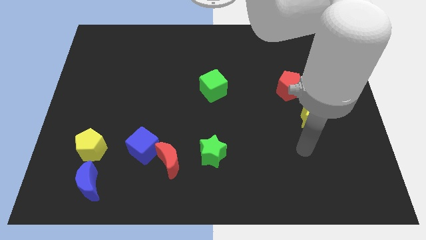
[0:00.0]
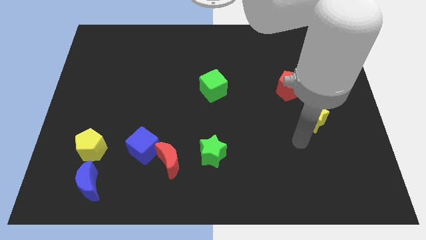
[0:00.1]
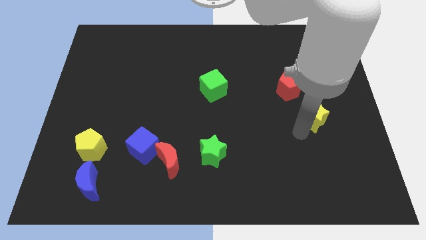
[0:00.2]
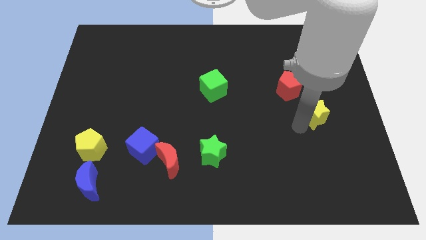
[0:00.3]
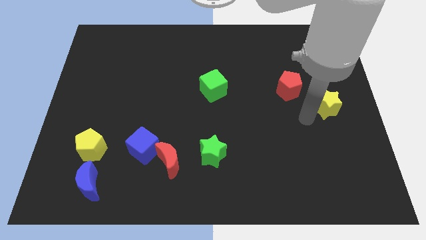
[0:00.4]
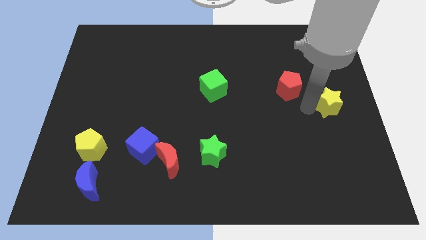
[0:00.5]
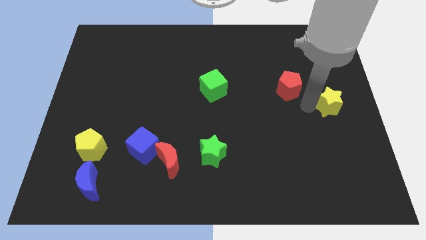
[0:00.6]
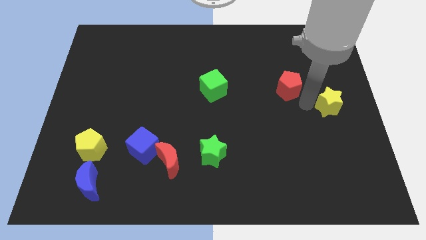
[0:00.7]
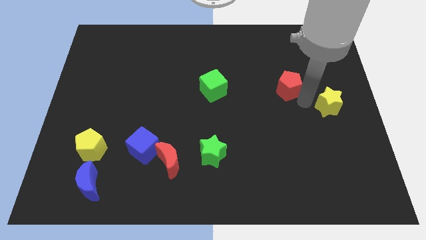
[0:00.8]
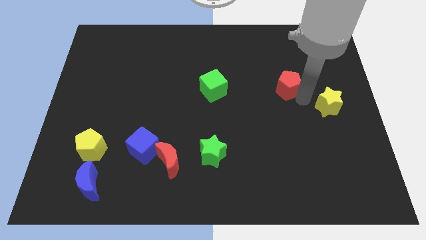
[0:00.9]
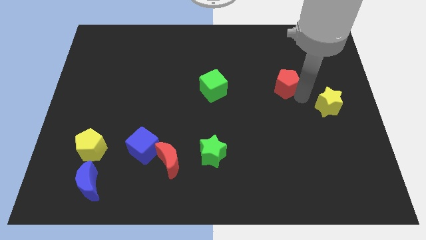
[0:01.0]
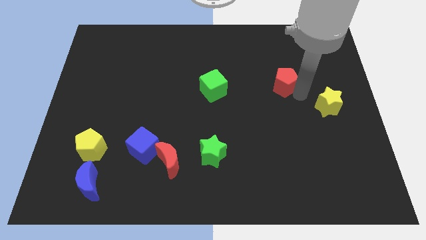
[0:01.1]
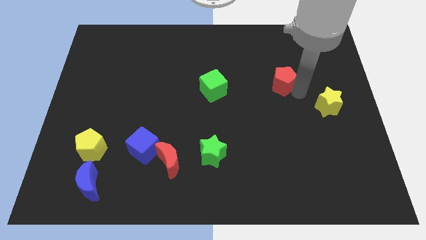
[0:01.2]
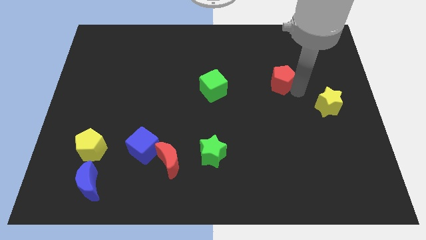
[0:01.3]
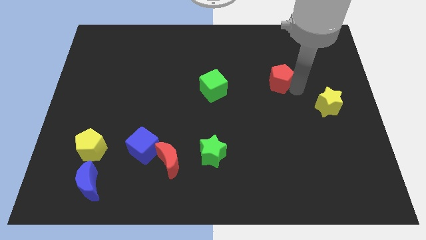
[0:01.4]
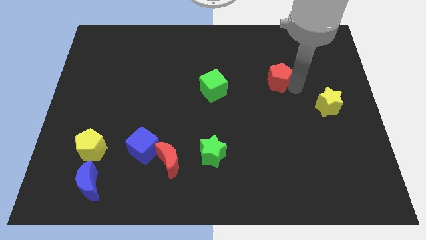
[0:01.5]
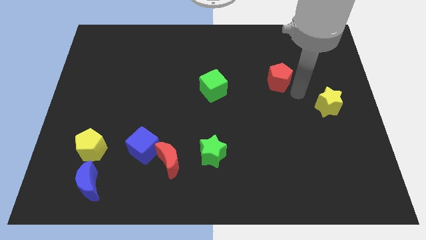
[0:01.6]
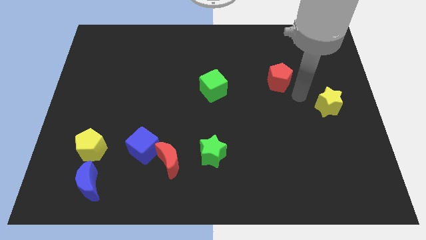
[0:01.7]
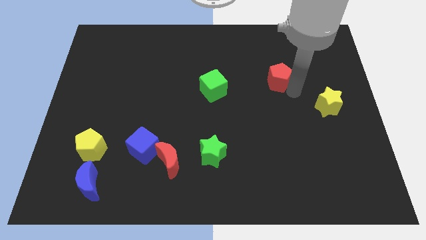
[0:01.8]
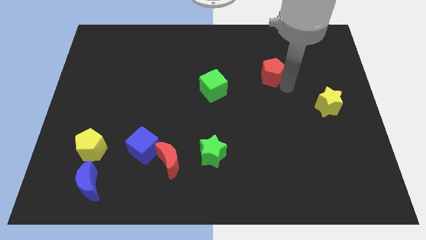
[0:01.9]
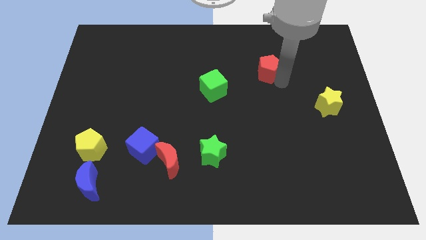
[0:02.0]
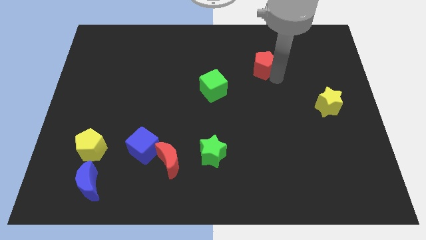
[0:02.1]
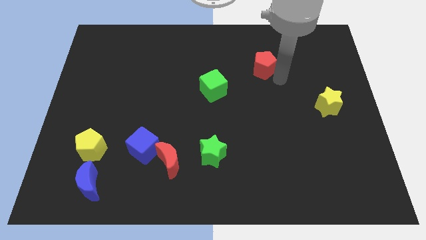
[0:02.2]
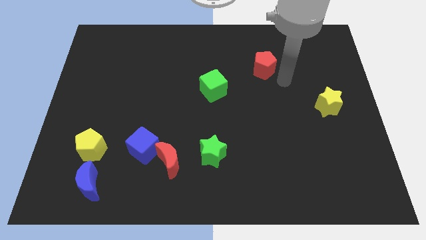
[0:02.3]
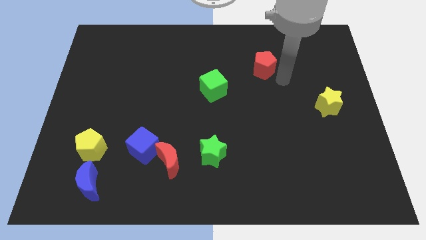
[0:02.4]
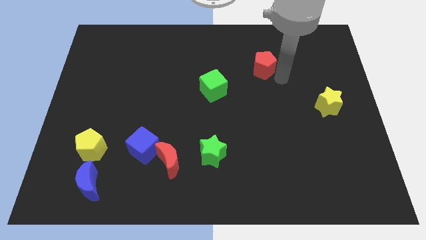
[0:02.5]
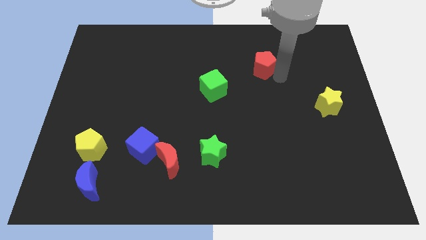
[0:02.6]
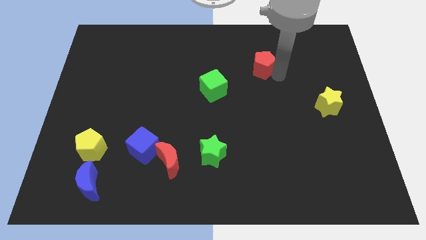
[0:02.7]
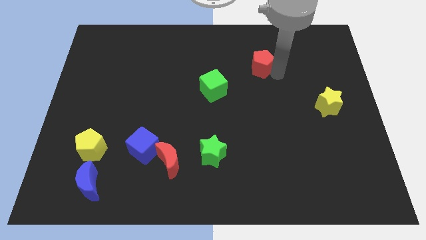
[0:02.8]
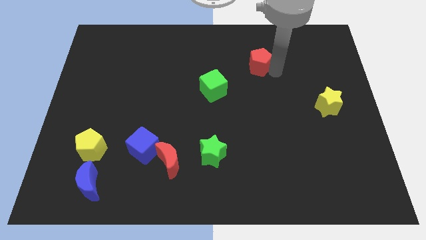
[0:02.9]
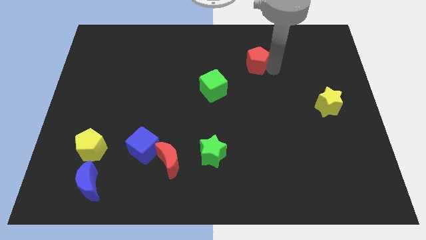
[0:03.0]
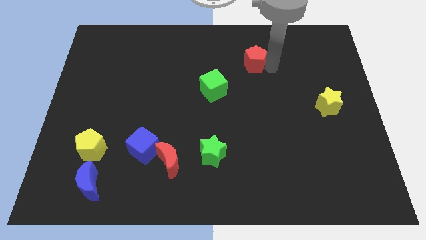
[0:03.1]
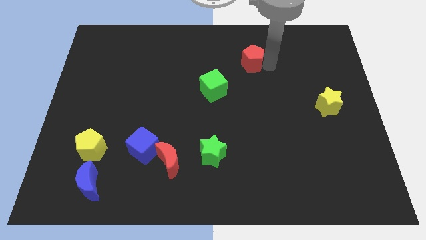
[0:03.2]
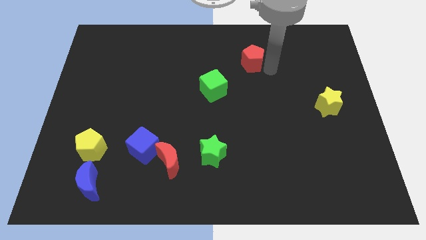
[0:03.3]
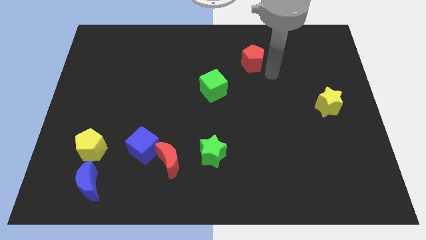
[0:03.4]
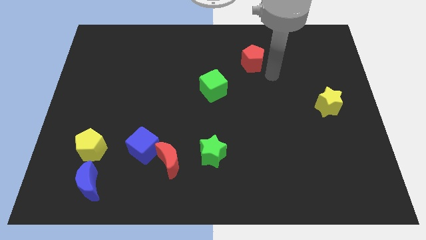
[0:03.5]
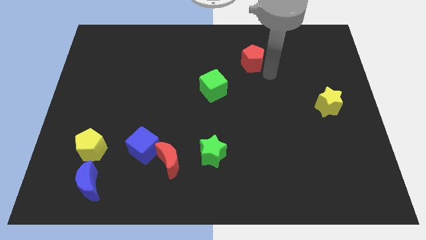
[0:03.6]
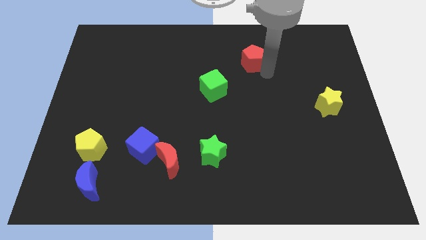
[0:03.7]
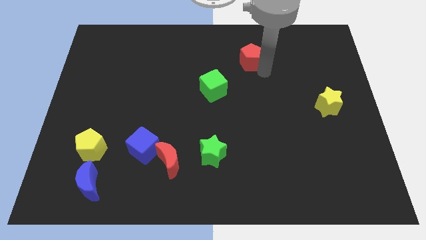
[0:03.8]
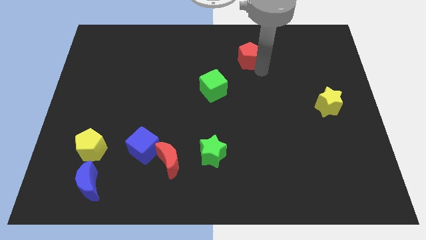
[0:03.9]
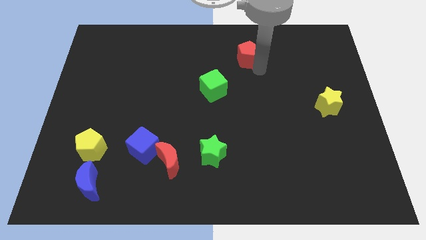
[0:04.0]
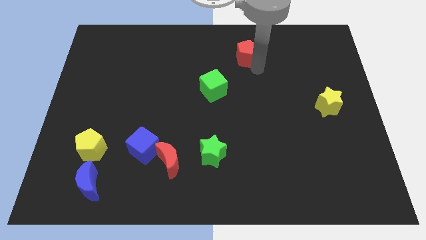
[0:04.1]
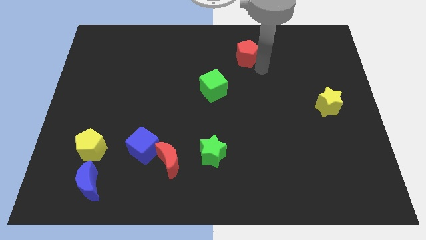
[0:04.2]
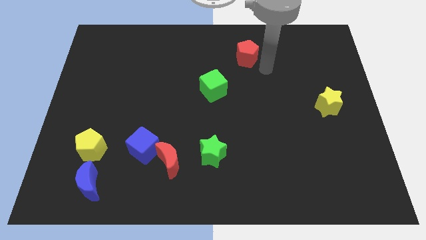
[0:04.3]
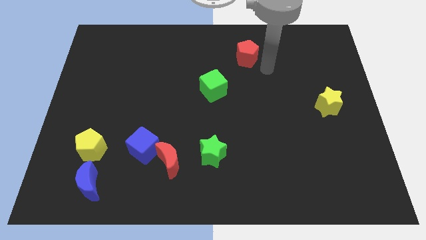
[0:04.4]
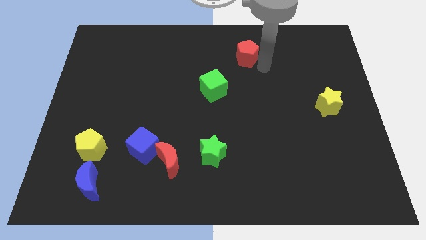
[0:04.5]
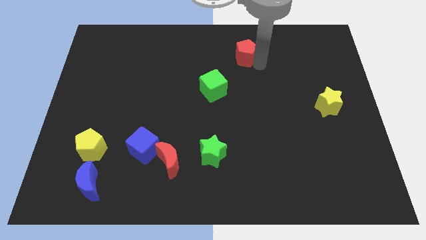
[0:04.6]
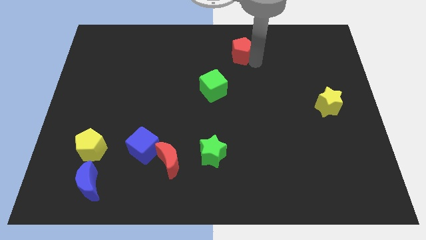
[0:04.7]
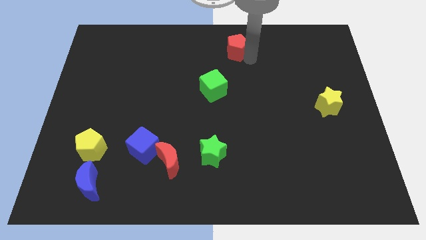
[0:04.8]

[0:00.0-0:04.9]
push the red pentagon to the top side

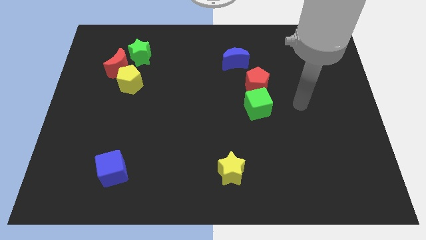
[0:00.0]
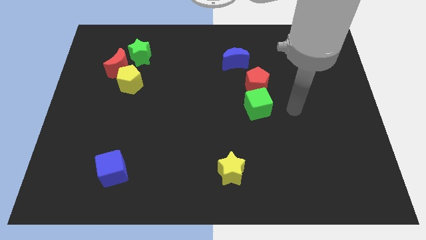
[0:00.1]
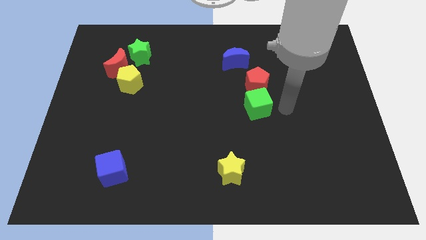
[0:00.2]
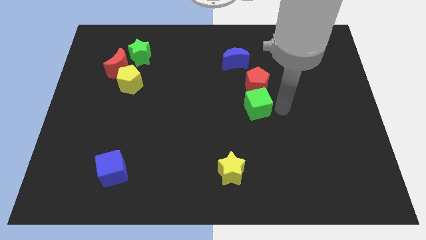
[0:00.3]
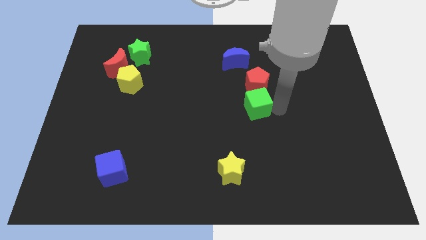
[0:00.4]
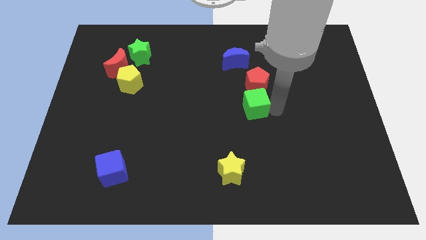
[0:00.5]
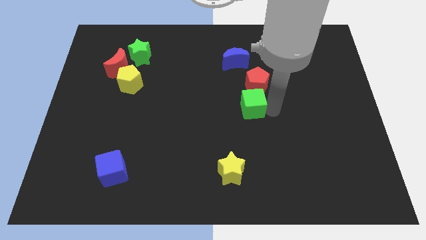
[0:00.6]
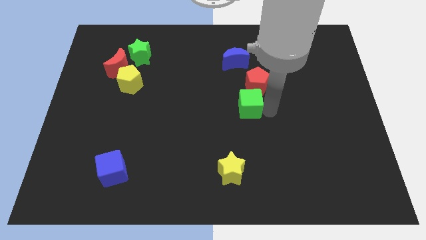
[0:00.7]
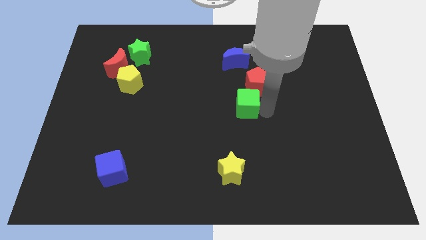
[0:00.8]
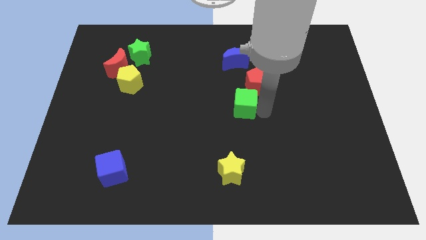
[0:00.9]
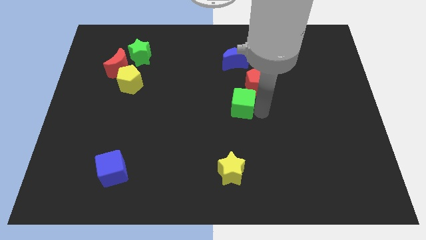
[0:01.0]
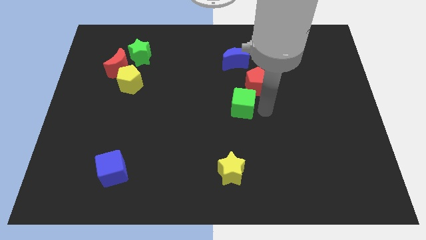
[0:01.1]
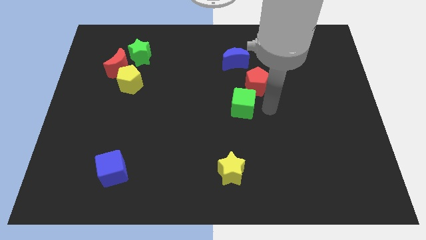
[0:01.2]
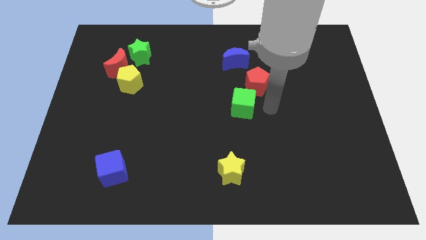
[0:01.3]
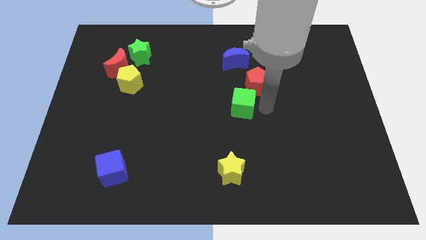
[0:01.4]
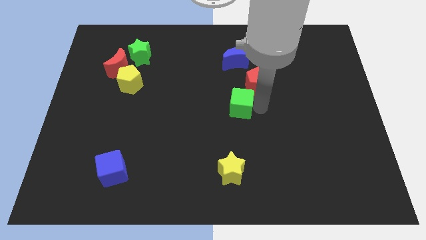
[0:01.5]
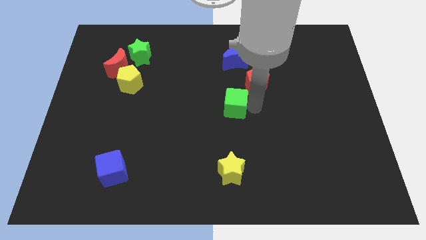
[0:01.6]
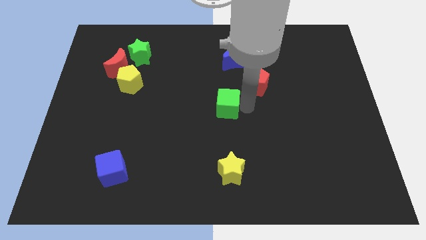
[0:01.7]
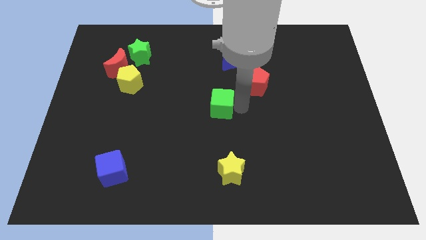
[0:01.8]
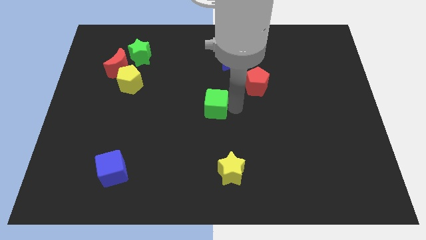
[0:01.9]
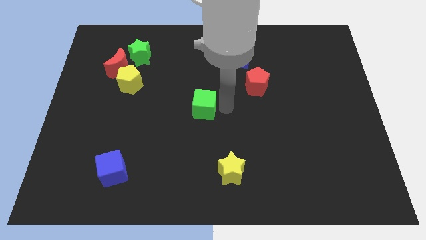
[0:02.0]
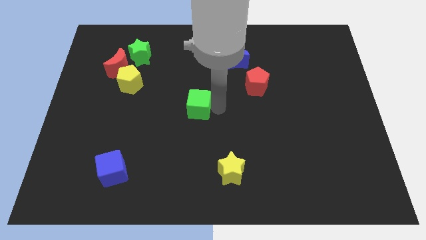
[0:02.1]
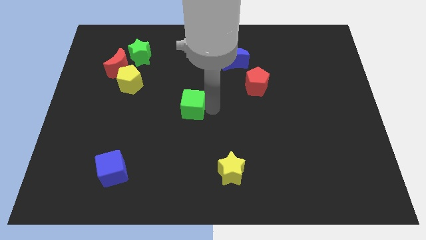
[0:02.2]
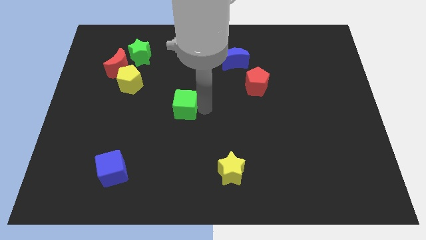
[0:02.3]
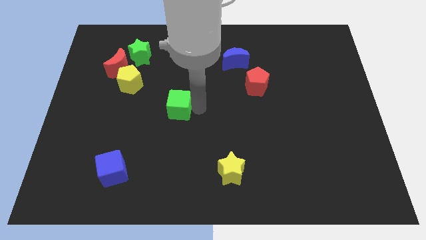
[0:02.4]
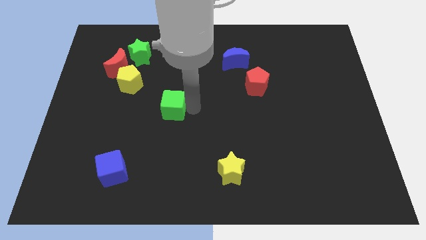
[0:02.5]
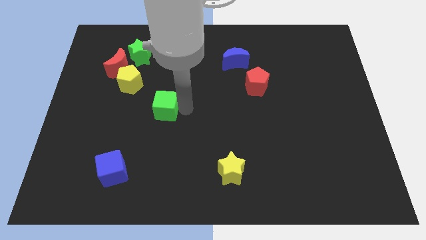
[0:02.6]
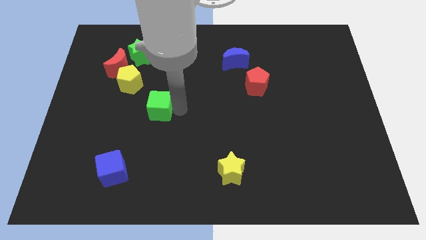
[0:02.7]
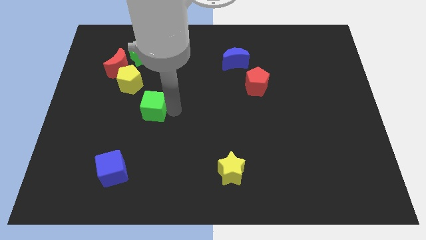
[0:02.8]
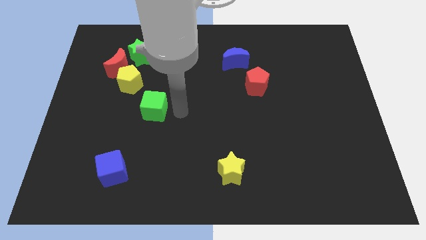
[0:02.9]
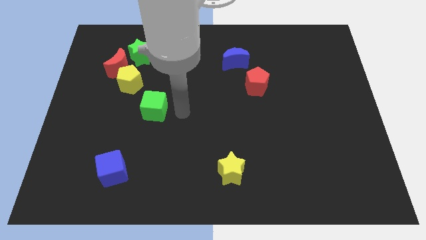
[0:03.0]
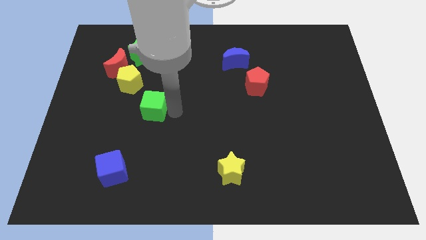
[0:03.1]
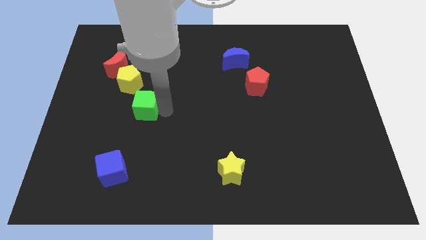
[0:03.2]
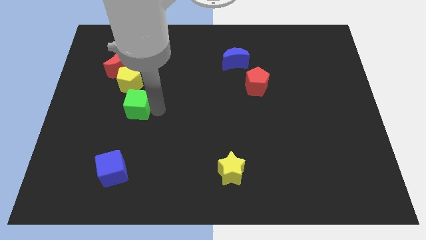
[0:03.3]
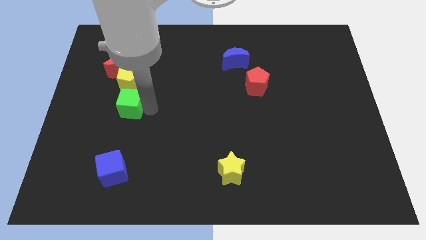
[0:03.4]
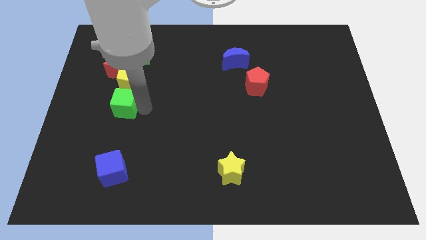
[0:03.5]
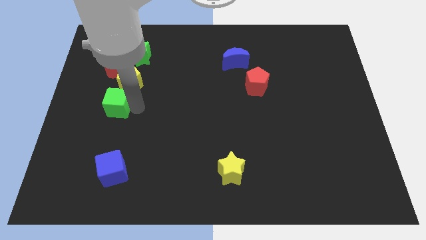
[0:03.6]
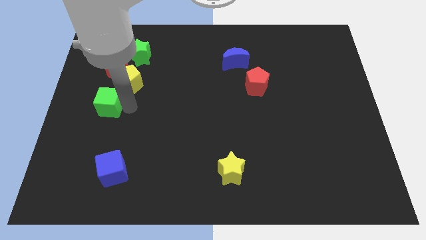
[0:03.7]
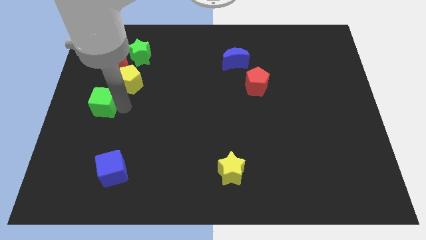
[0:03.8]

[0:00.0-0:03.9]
slide the green cube to the left side of the board
